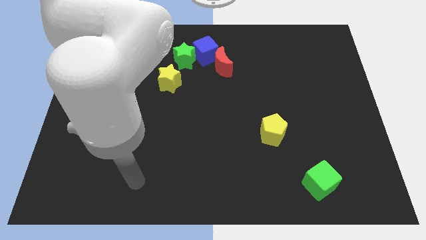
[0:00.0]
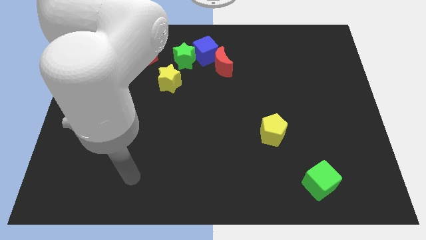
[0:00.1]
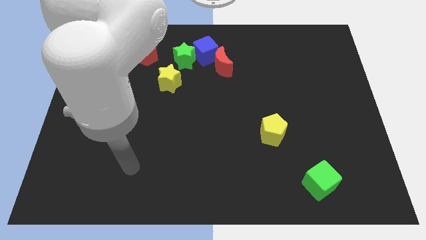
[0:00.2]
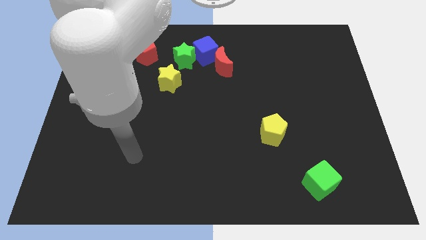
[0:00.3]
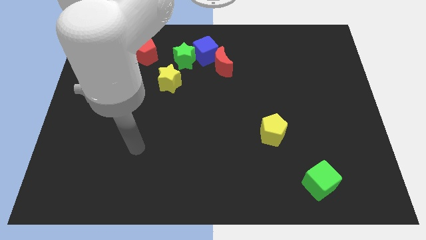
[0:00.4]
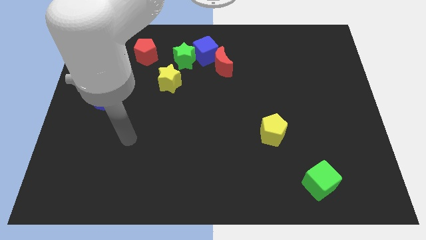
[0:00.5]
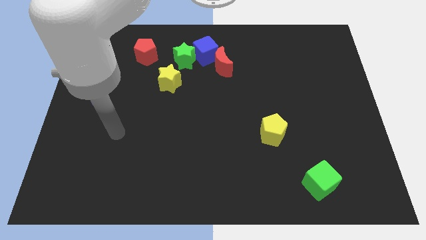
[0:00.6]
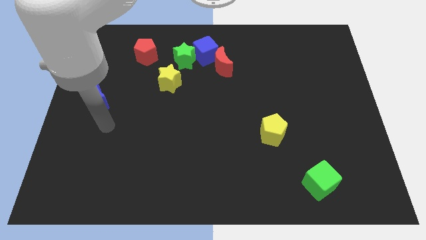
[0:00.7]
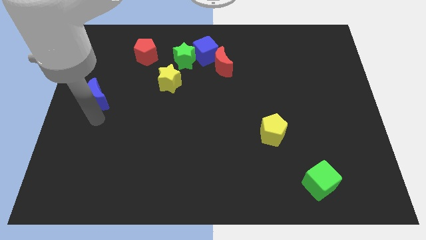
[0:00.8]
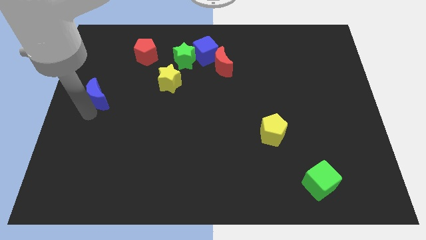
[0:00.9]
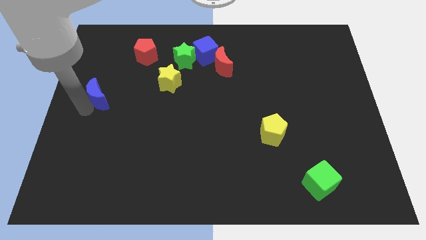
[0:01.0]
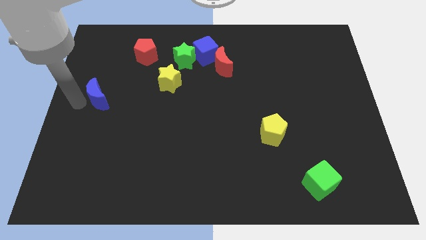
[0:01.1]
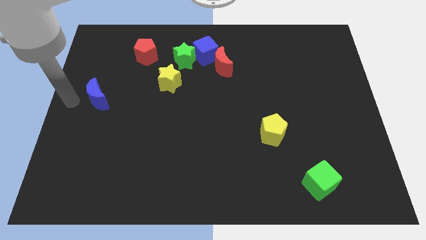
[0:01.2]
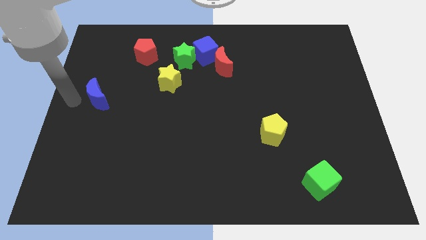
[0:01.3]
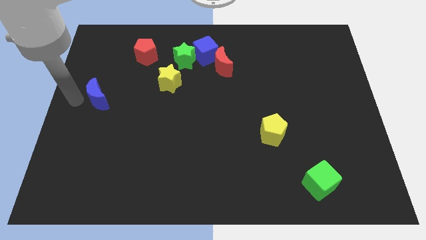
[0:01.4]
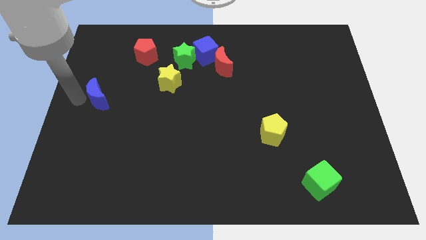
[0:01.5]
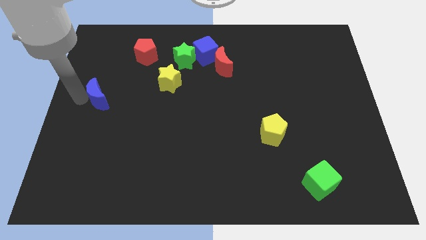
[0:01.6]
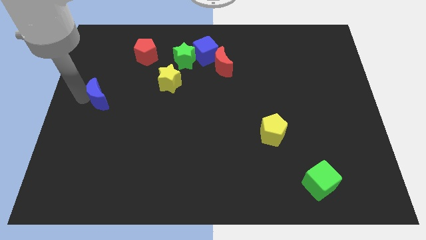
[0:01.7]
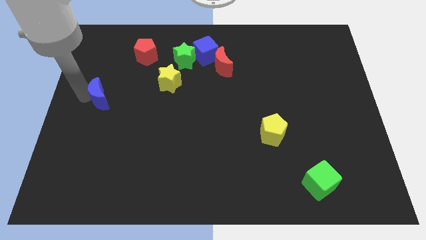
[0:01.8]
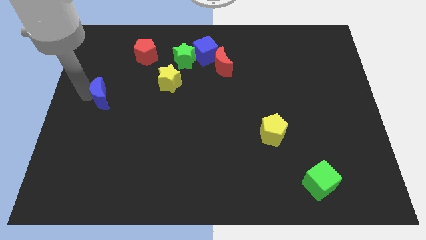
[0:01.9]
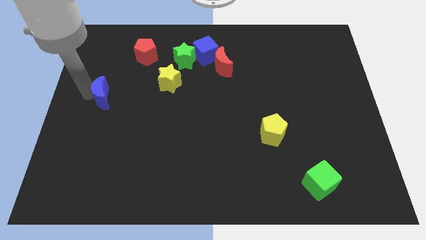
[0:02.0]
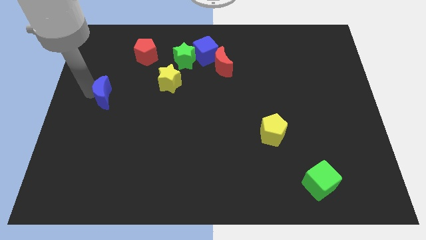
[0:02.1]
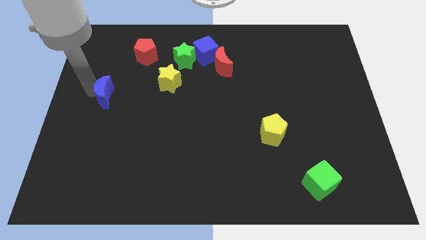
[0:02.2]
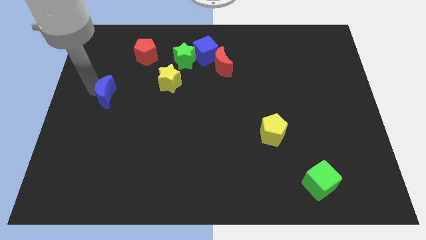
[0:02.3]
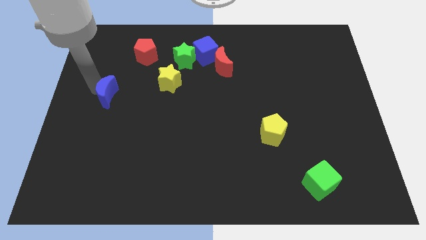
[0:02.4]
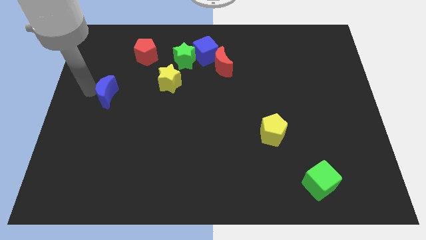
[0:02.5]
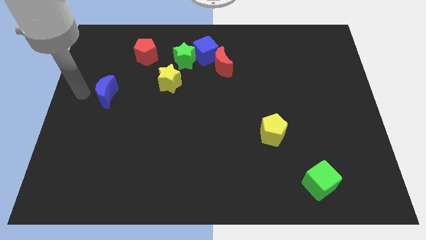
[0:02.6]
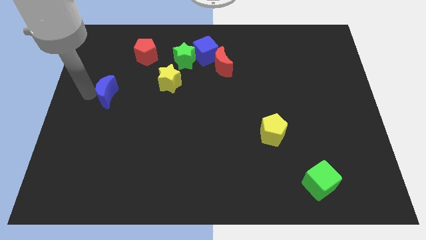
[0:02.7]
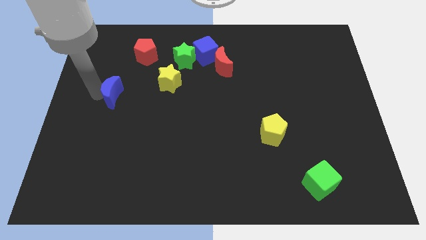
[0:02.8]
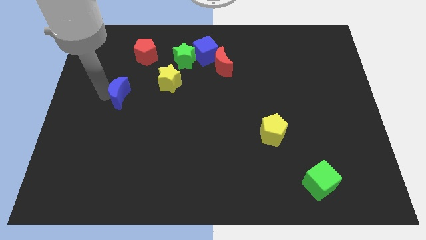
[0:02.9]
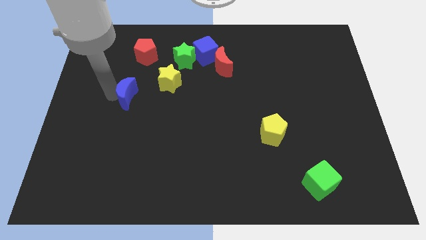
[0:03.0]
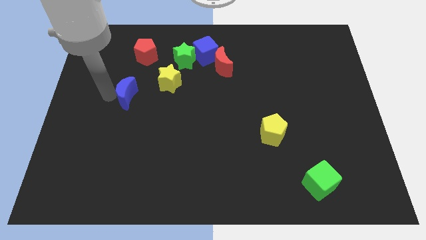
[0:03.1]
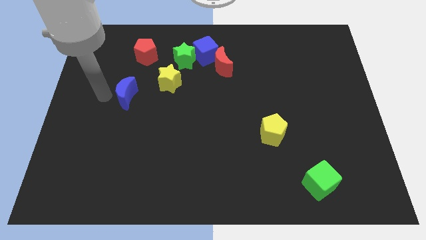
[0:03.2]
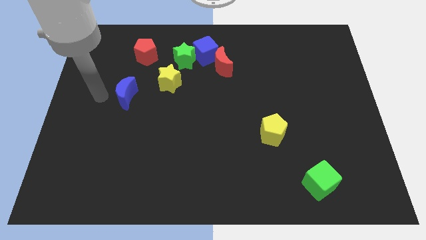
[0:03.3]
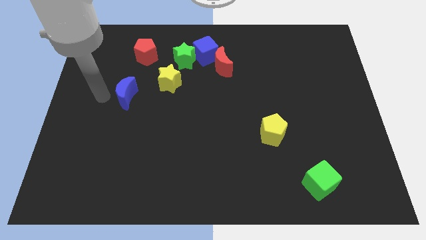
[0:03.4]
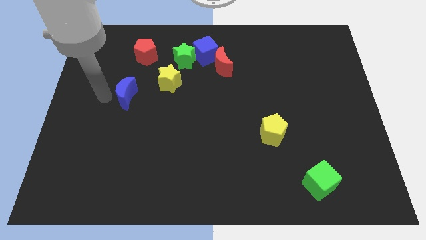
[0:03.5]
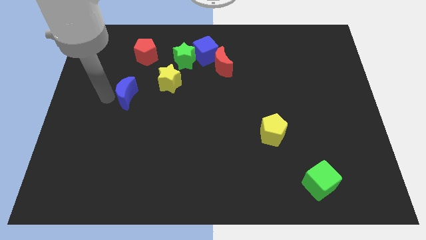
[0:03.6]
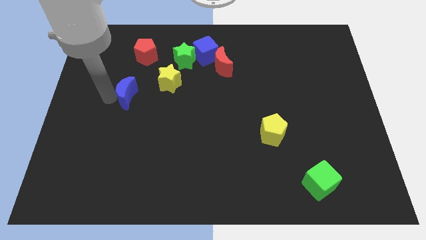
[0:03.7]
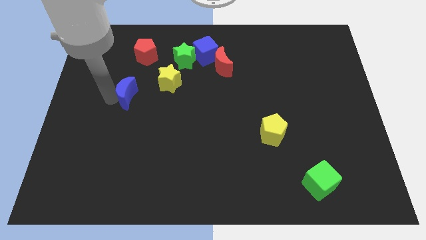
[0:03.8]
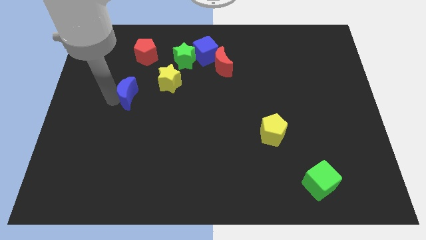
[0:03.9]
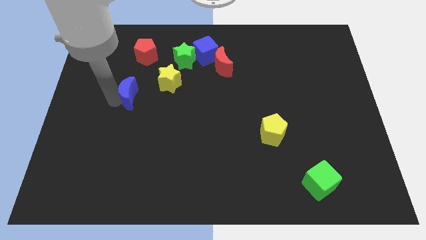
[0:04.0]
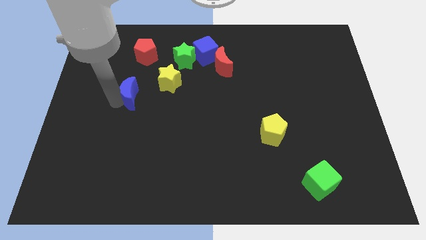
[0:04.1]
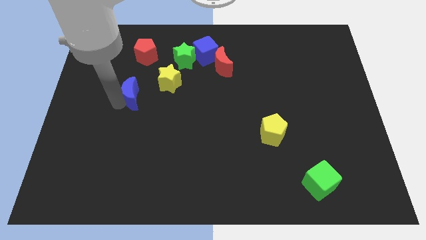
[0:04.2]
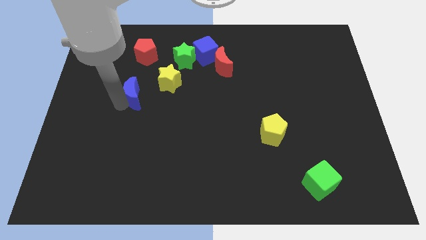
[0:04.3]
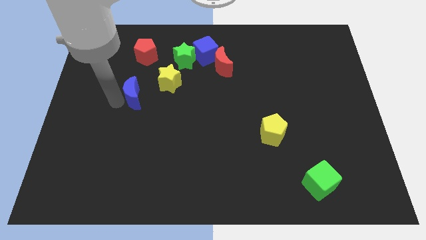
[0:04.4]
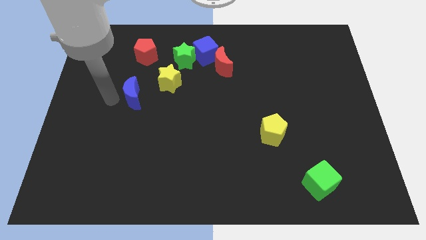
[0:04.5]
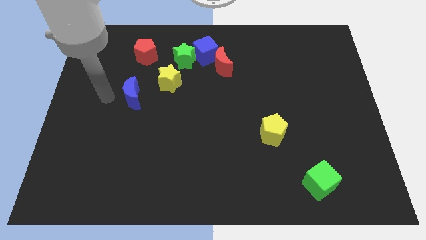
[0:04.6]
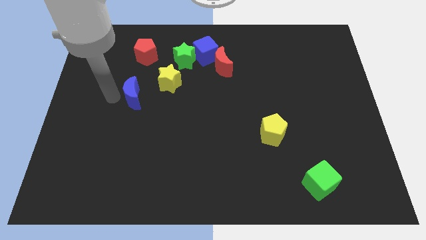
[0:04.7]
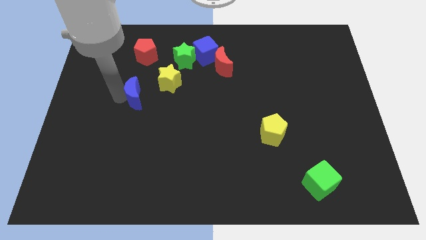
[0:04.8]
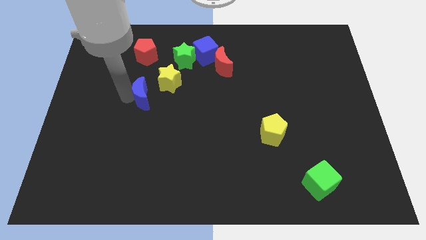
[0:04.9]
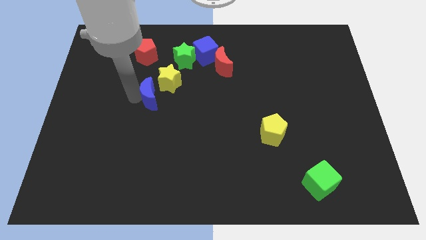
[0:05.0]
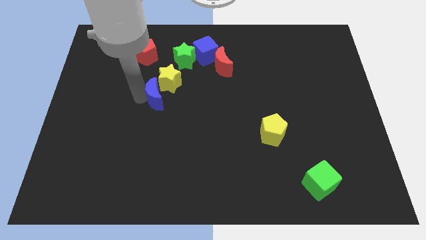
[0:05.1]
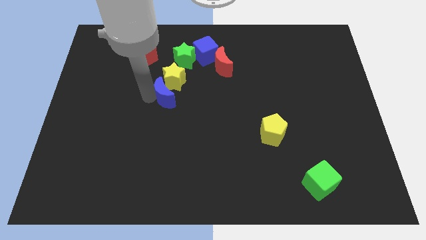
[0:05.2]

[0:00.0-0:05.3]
push the blue moon to the center
